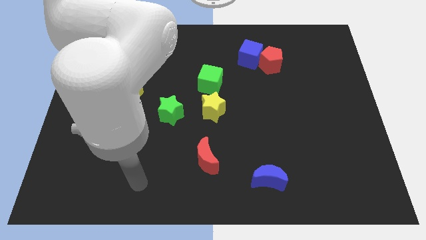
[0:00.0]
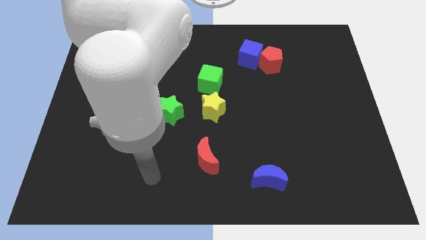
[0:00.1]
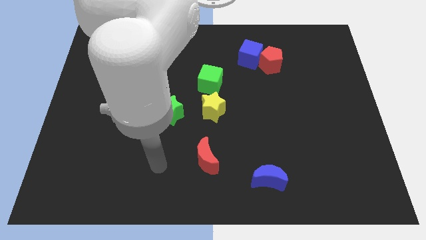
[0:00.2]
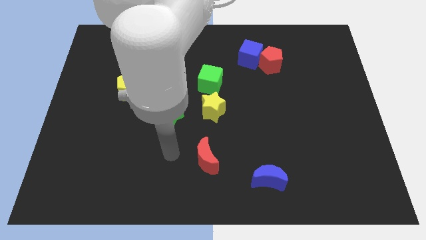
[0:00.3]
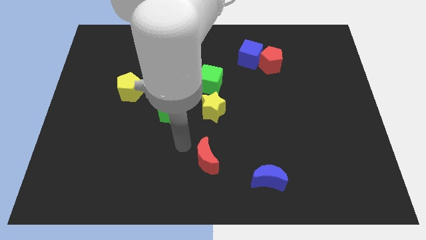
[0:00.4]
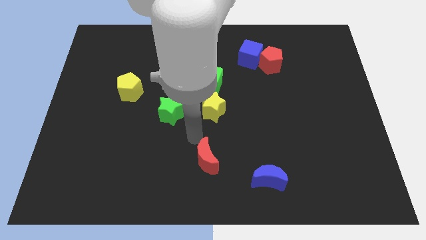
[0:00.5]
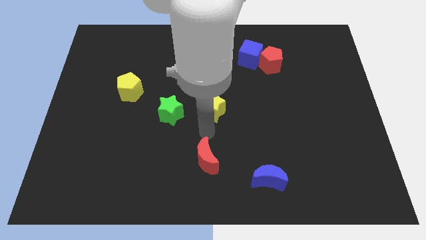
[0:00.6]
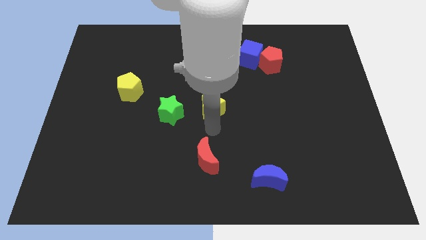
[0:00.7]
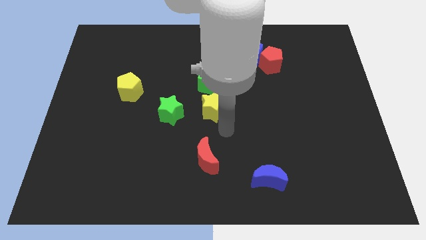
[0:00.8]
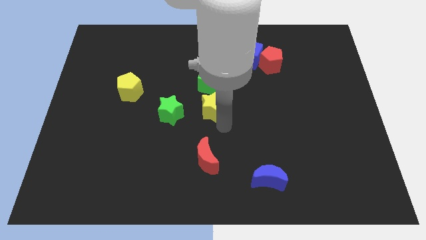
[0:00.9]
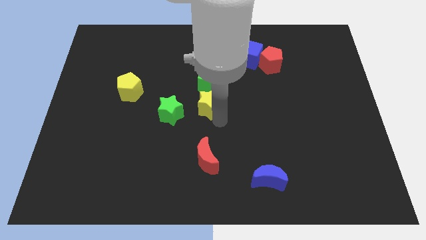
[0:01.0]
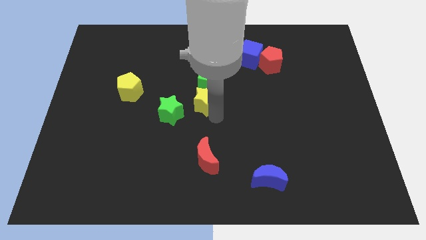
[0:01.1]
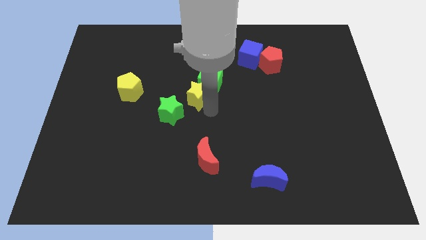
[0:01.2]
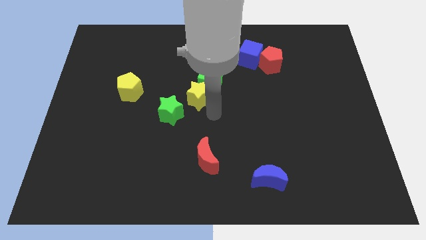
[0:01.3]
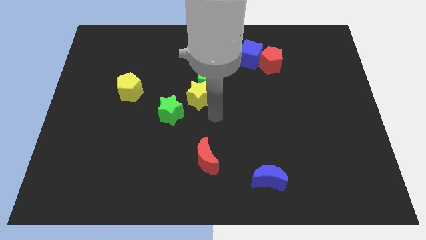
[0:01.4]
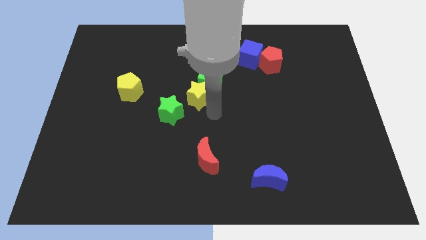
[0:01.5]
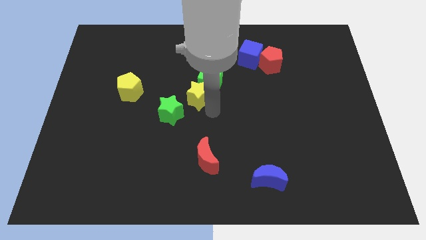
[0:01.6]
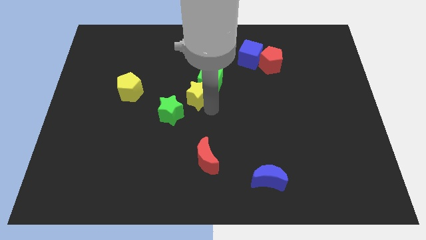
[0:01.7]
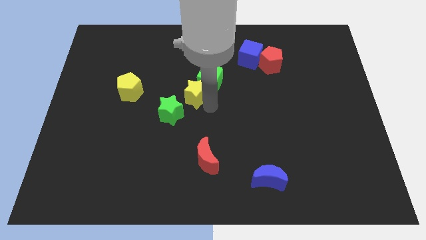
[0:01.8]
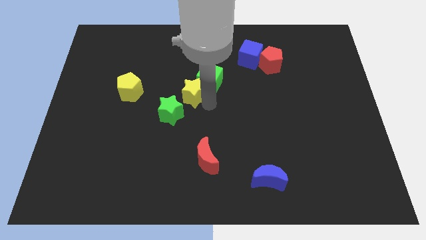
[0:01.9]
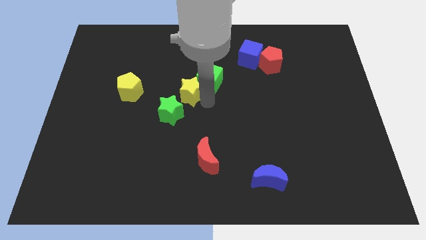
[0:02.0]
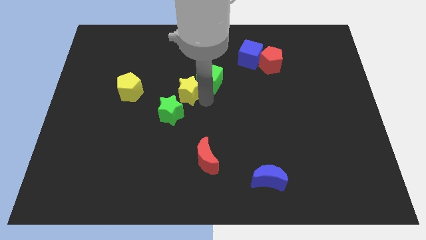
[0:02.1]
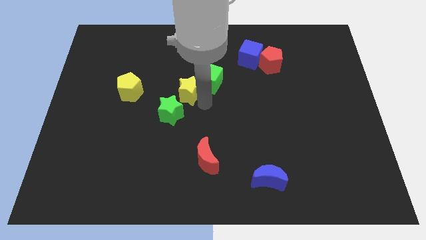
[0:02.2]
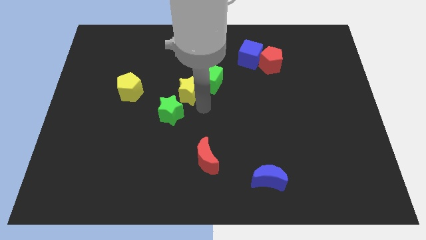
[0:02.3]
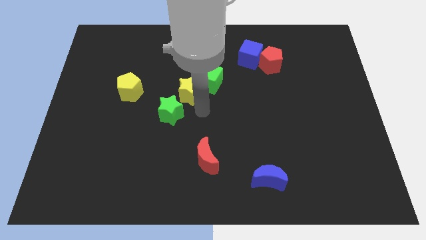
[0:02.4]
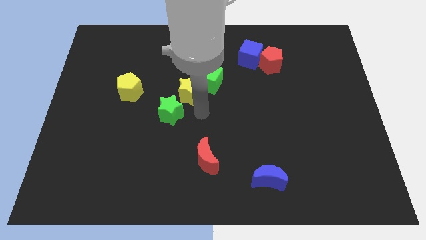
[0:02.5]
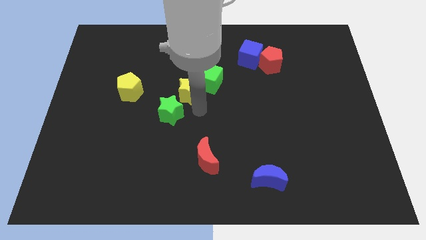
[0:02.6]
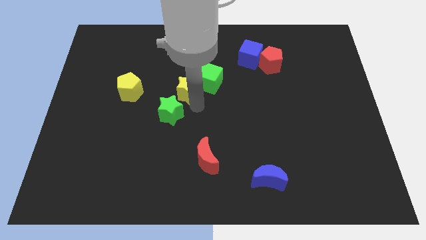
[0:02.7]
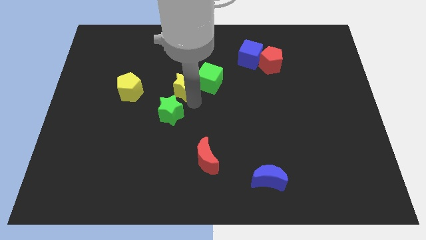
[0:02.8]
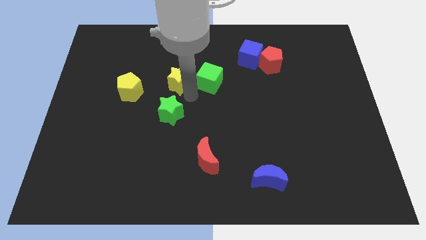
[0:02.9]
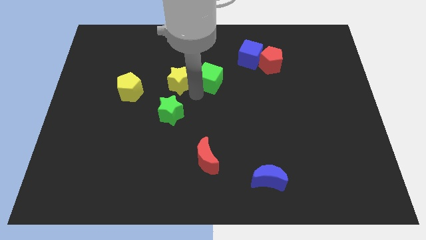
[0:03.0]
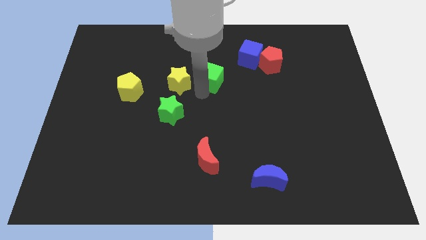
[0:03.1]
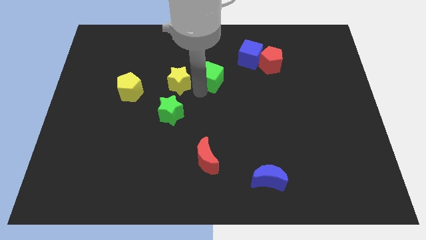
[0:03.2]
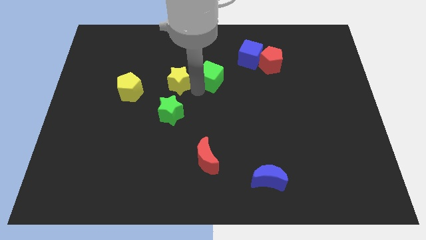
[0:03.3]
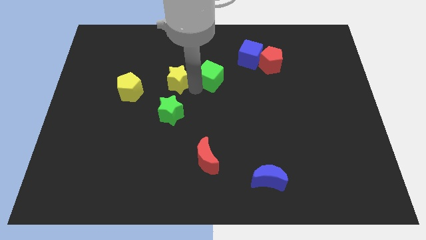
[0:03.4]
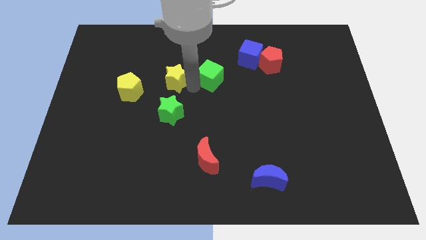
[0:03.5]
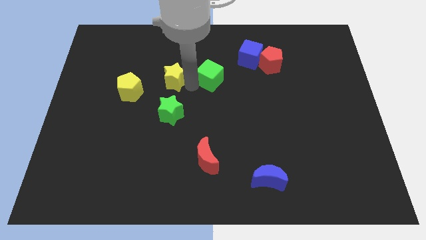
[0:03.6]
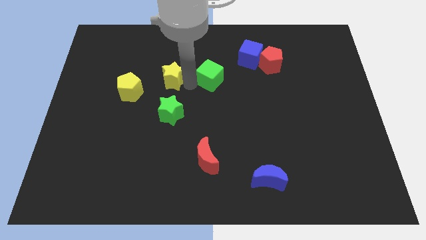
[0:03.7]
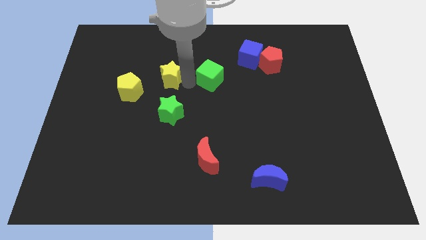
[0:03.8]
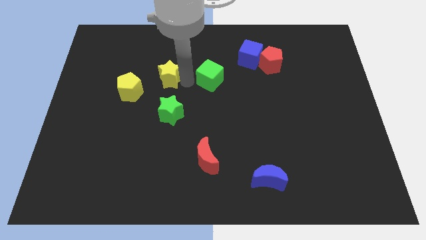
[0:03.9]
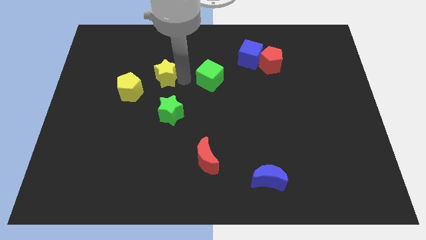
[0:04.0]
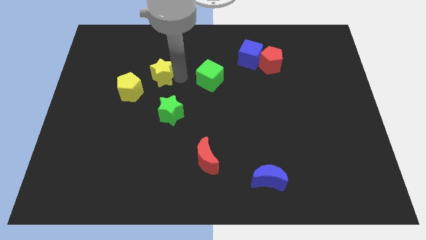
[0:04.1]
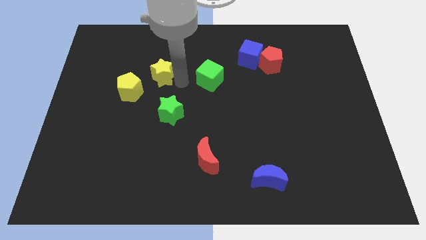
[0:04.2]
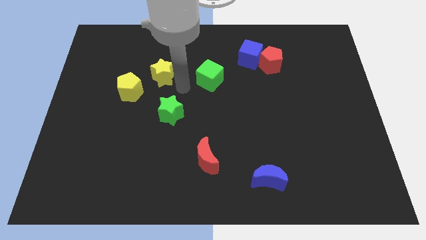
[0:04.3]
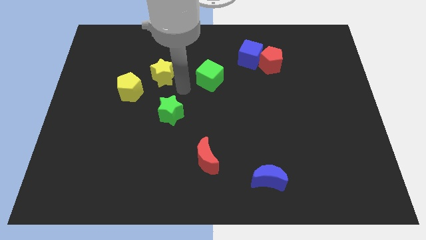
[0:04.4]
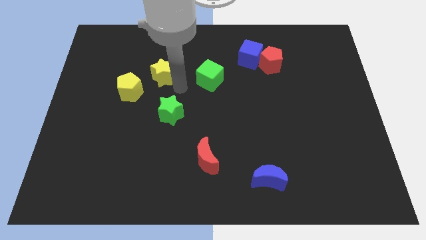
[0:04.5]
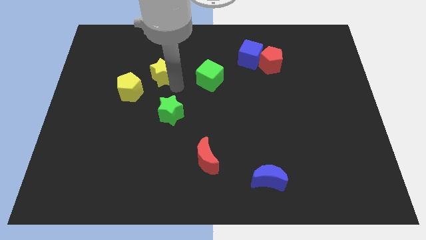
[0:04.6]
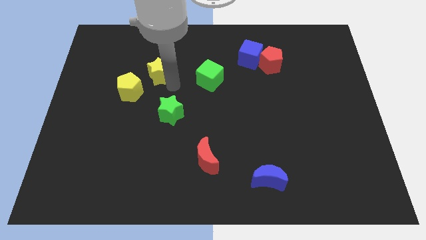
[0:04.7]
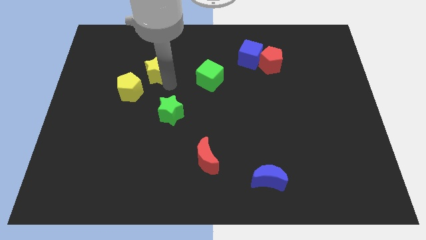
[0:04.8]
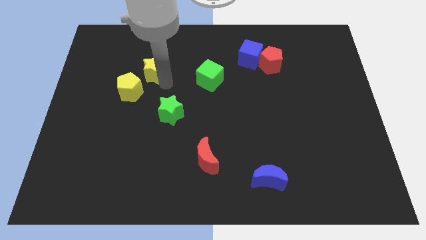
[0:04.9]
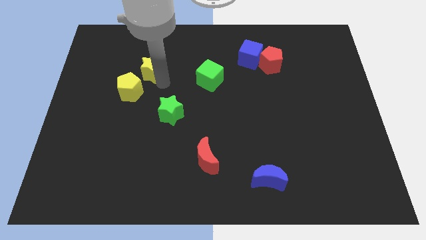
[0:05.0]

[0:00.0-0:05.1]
put the yellow star above the yellow pentagon

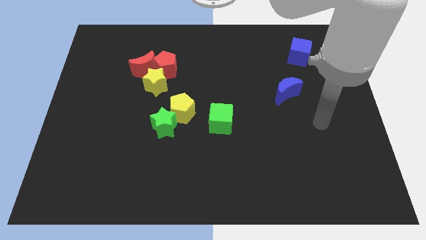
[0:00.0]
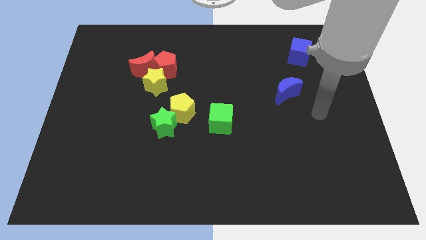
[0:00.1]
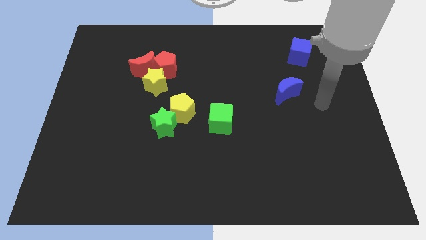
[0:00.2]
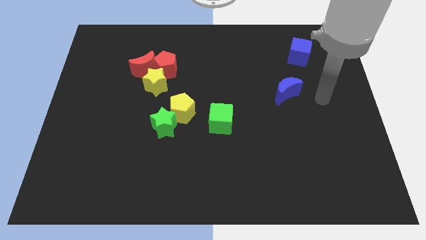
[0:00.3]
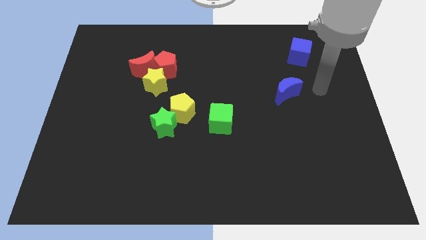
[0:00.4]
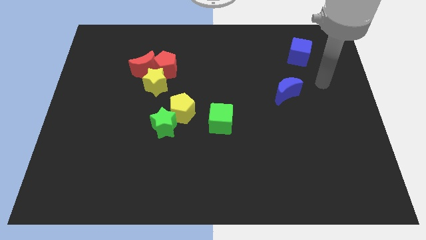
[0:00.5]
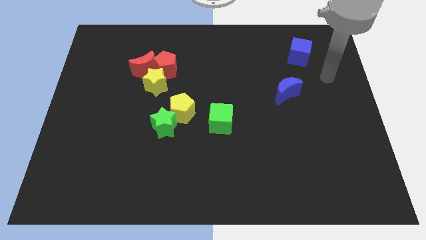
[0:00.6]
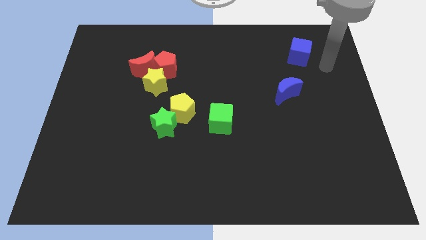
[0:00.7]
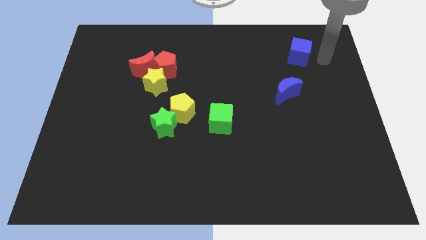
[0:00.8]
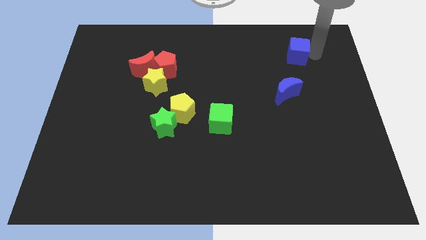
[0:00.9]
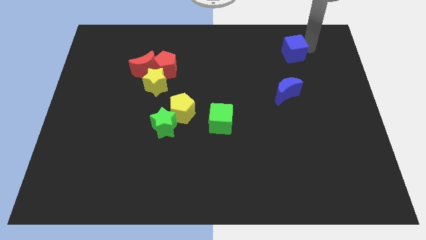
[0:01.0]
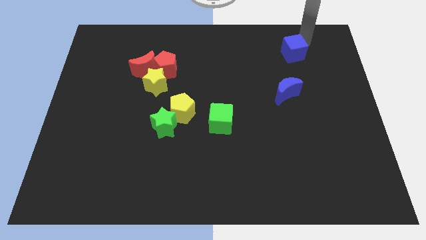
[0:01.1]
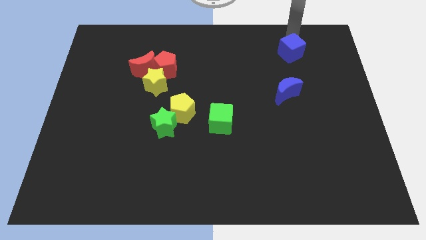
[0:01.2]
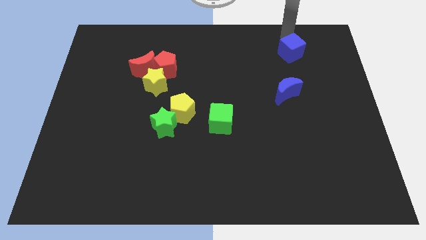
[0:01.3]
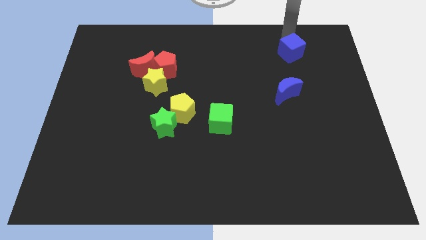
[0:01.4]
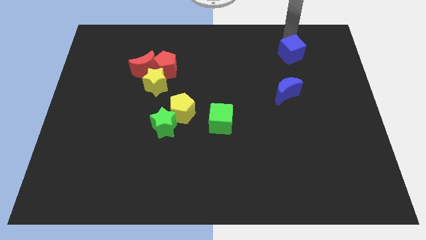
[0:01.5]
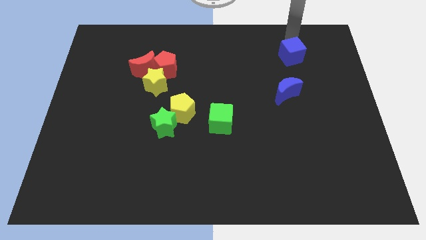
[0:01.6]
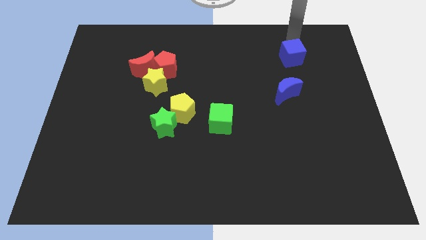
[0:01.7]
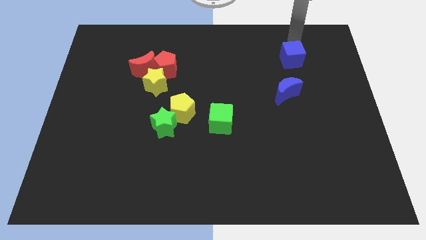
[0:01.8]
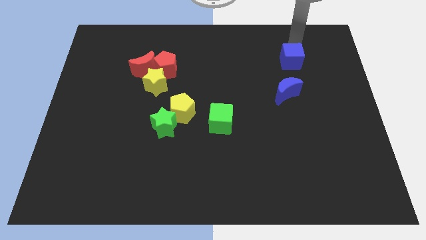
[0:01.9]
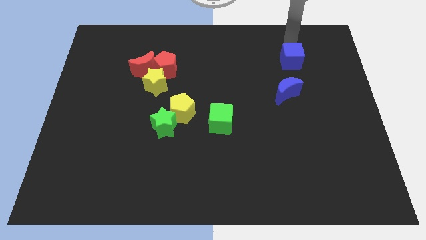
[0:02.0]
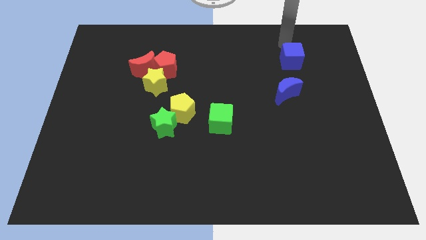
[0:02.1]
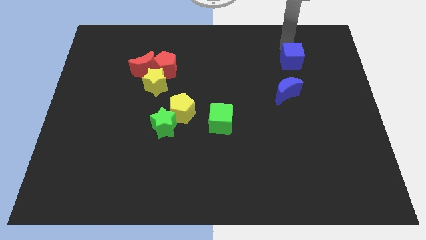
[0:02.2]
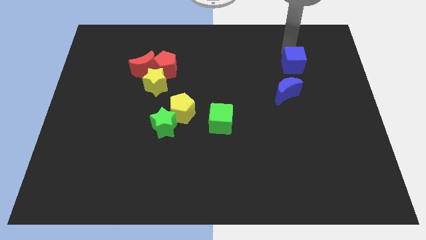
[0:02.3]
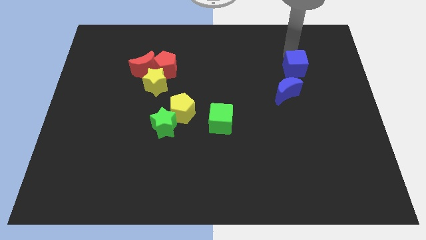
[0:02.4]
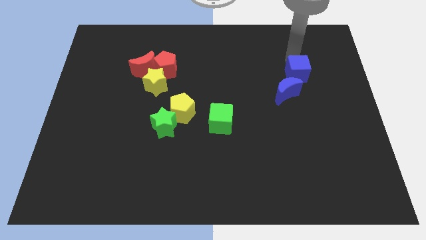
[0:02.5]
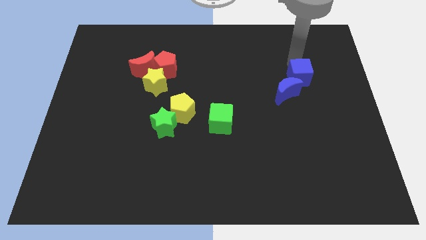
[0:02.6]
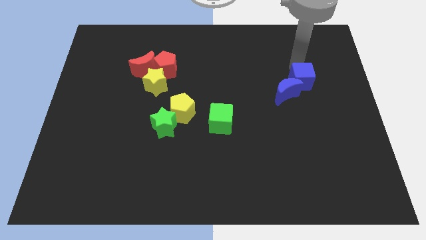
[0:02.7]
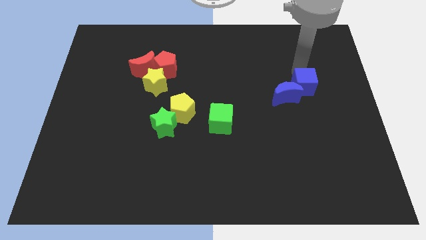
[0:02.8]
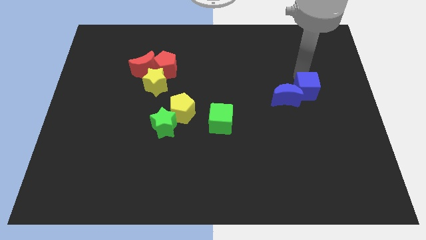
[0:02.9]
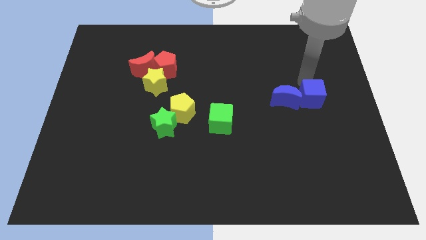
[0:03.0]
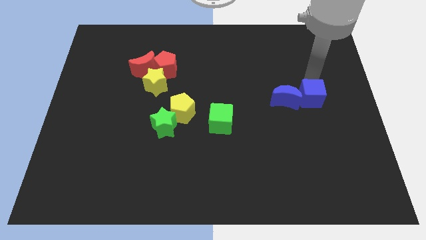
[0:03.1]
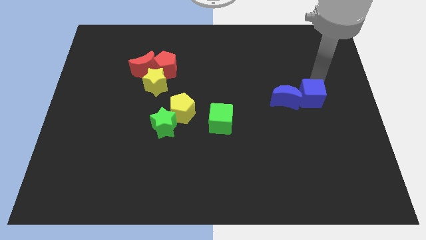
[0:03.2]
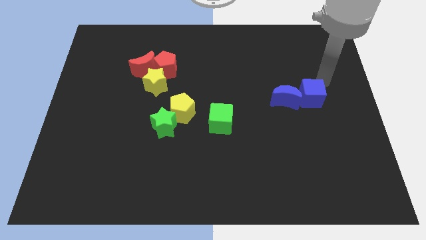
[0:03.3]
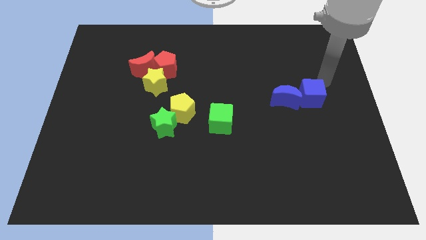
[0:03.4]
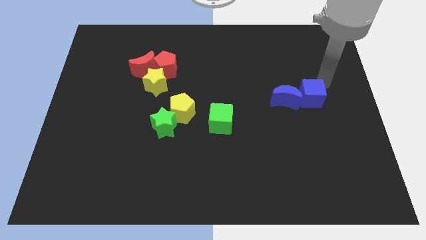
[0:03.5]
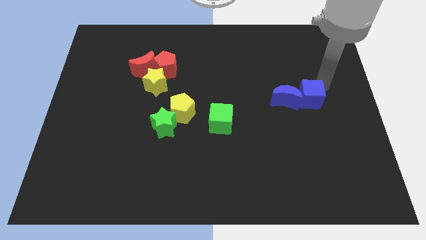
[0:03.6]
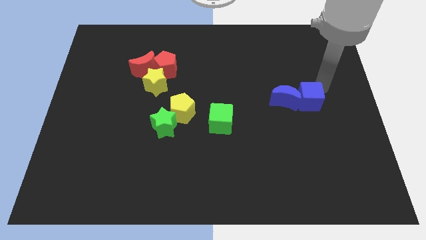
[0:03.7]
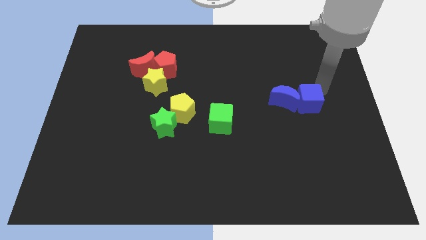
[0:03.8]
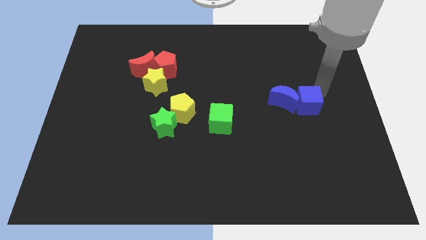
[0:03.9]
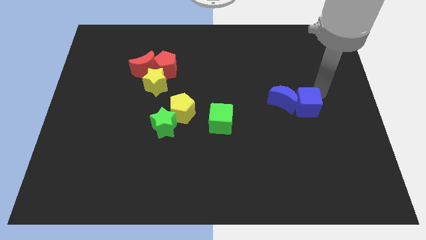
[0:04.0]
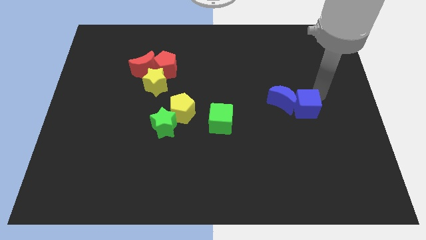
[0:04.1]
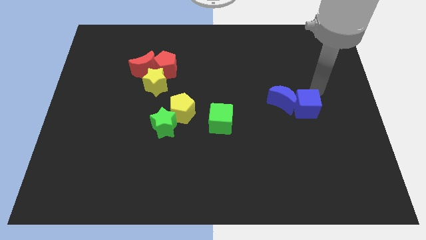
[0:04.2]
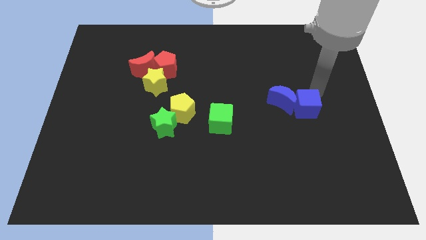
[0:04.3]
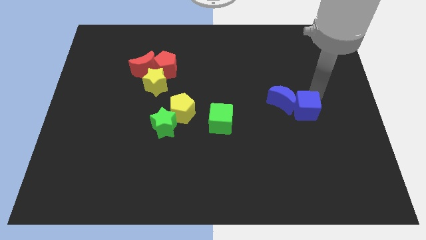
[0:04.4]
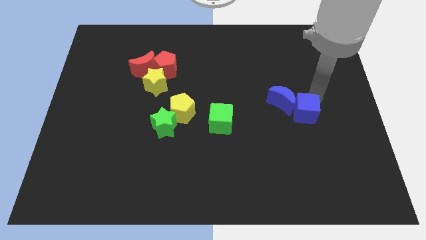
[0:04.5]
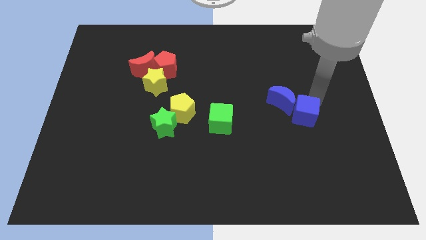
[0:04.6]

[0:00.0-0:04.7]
slide the blue cube to the bottom side of the blue moon
